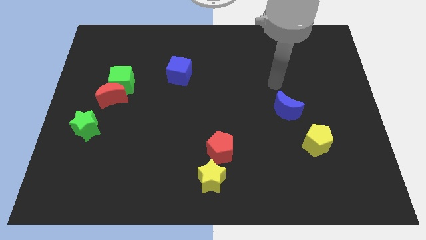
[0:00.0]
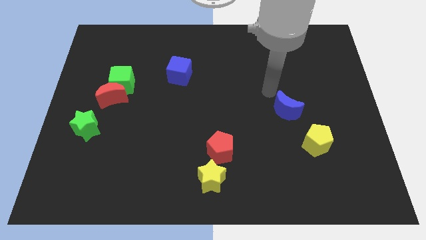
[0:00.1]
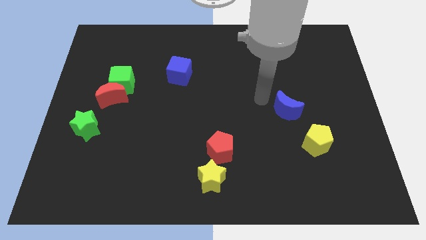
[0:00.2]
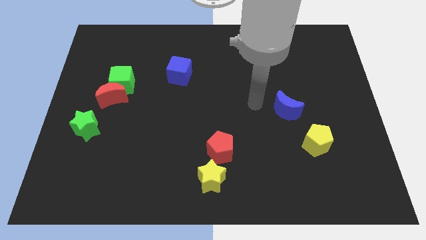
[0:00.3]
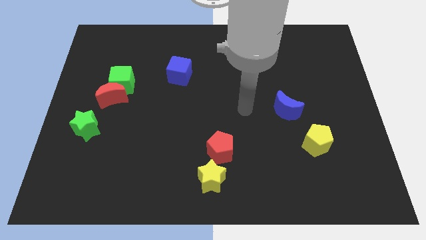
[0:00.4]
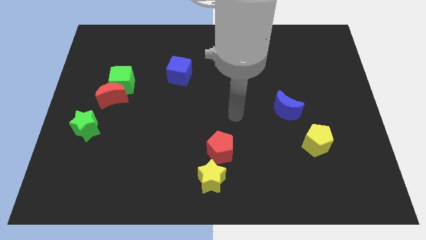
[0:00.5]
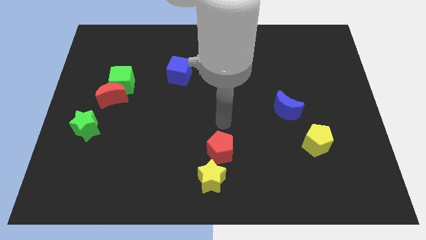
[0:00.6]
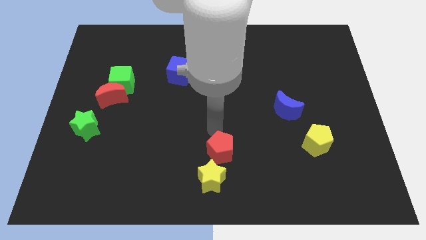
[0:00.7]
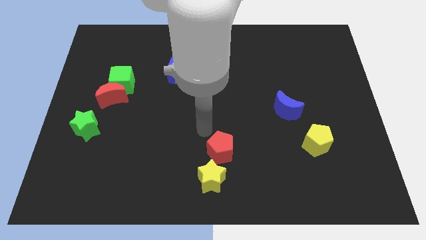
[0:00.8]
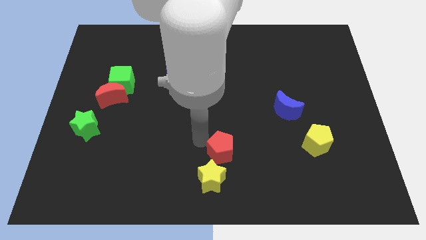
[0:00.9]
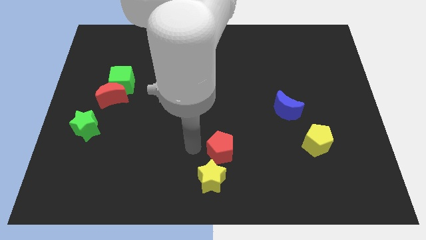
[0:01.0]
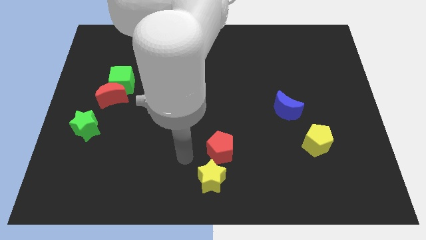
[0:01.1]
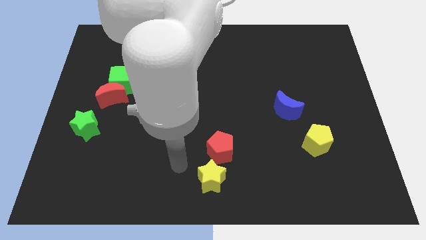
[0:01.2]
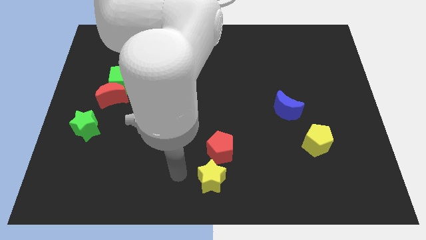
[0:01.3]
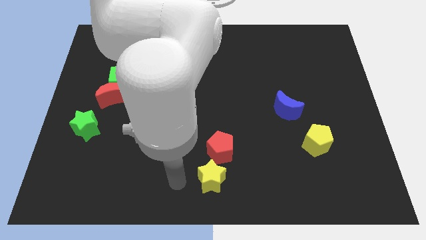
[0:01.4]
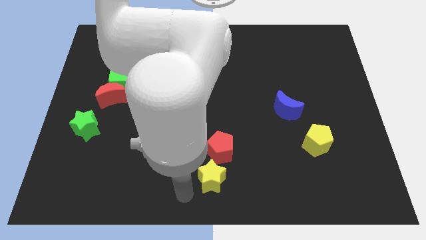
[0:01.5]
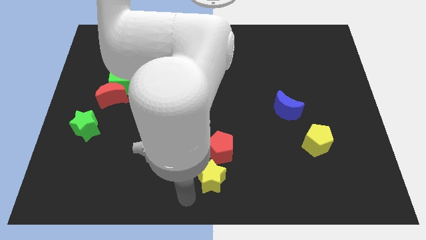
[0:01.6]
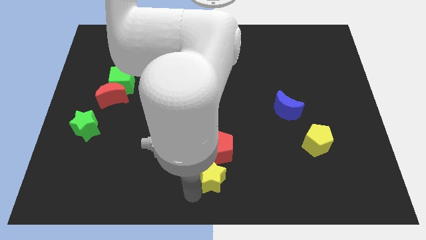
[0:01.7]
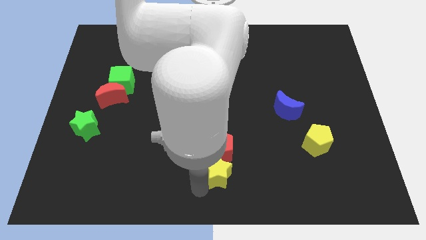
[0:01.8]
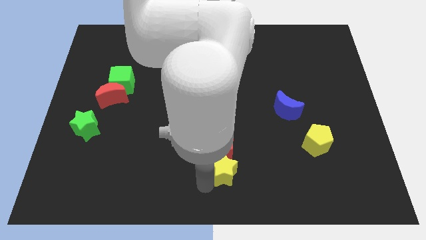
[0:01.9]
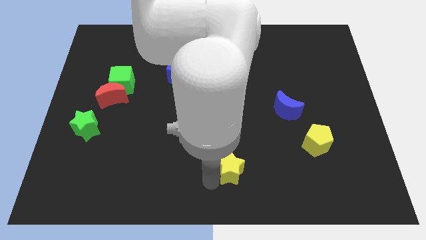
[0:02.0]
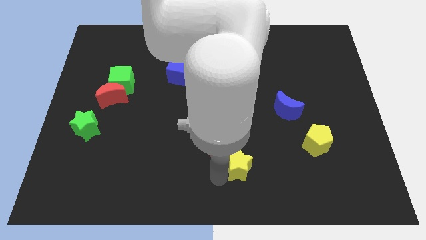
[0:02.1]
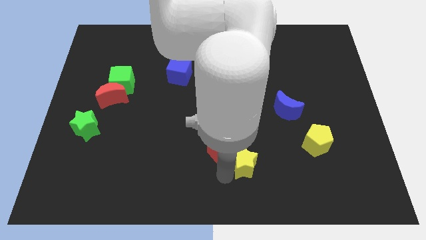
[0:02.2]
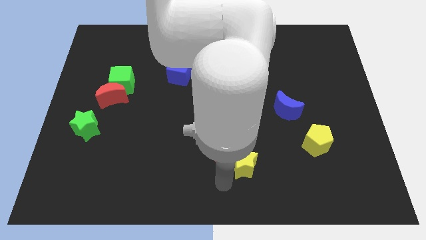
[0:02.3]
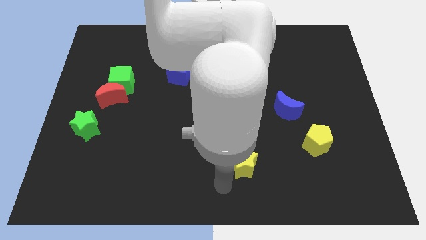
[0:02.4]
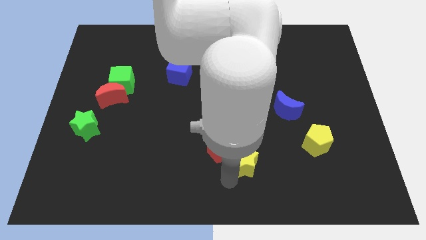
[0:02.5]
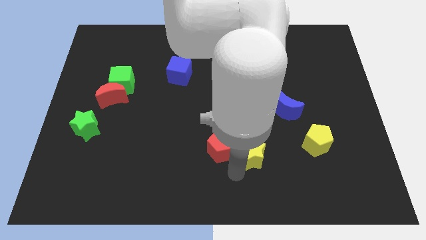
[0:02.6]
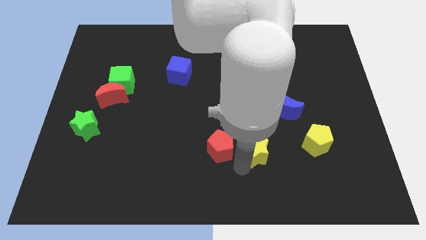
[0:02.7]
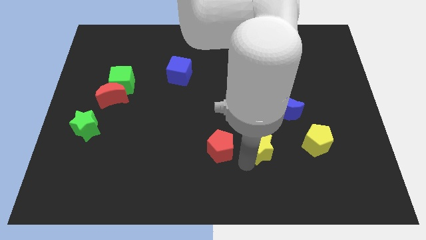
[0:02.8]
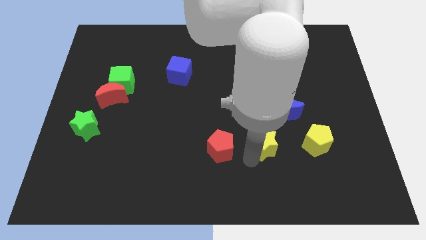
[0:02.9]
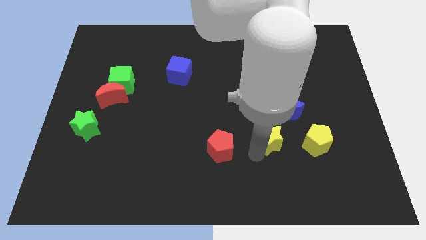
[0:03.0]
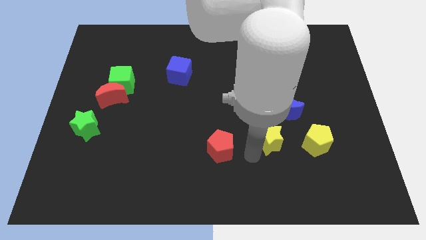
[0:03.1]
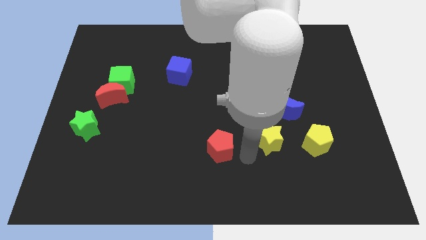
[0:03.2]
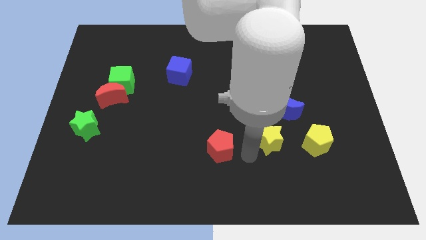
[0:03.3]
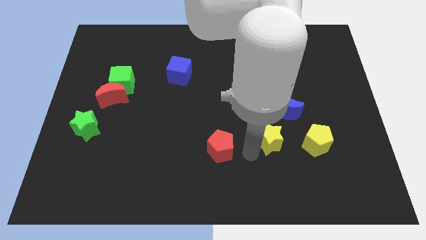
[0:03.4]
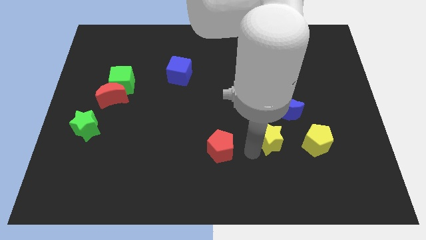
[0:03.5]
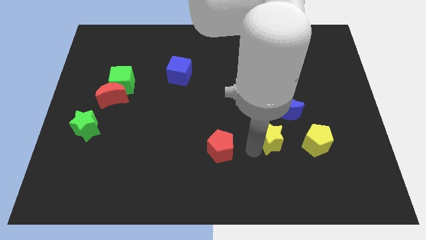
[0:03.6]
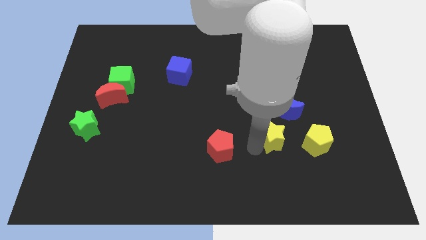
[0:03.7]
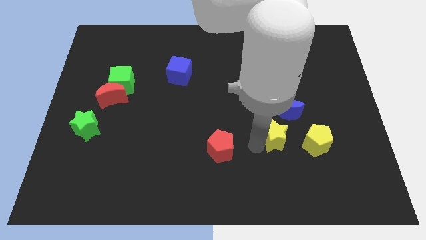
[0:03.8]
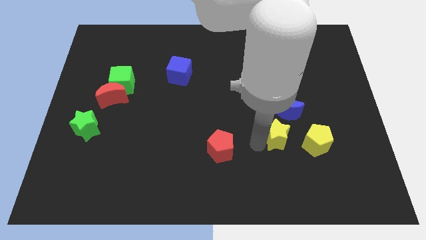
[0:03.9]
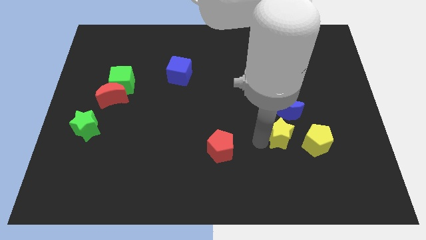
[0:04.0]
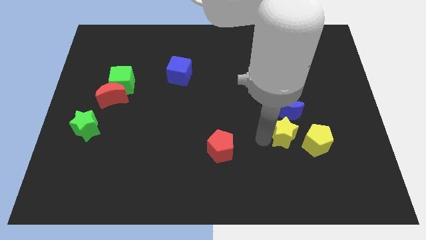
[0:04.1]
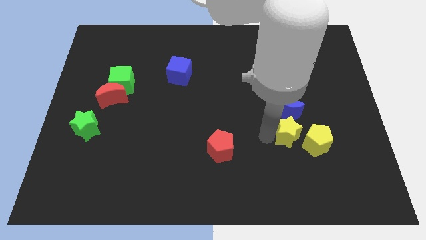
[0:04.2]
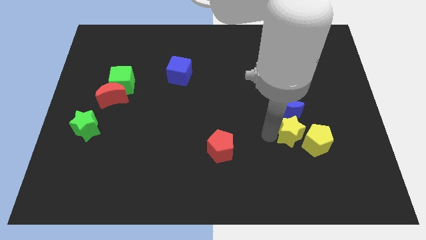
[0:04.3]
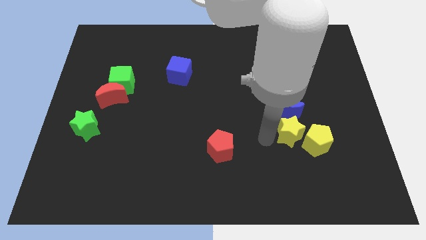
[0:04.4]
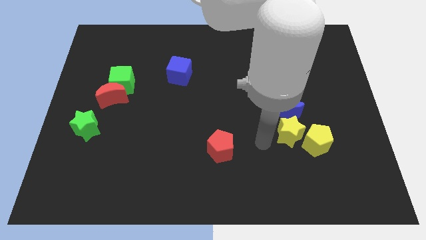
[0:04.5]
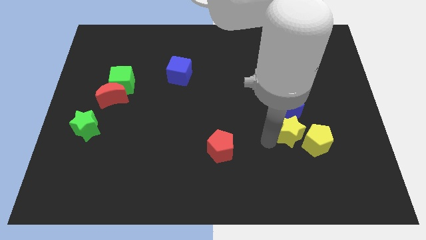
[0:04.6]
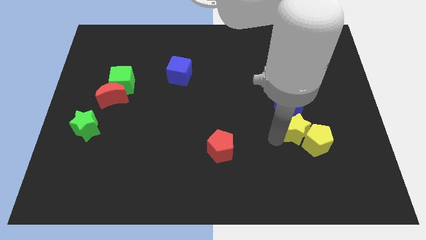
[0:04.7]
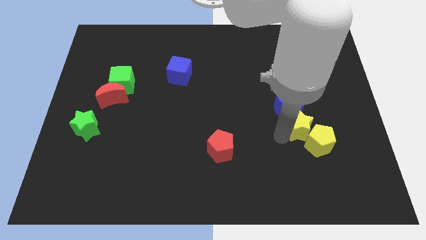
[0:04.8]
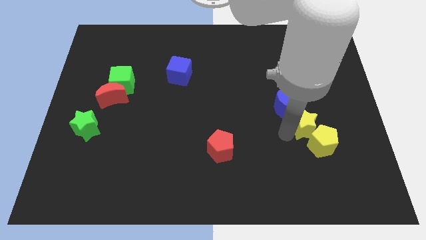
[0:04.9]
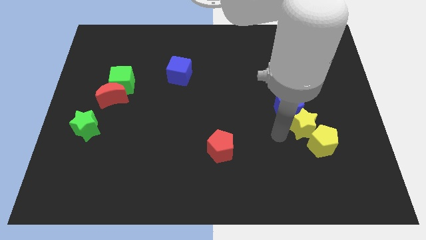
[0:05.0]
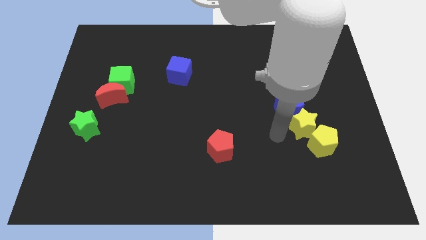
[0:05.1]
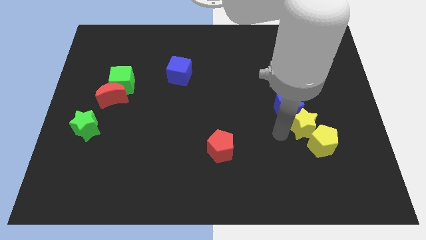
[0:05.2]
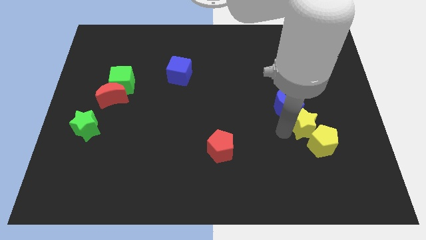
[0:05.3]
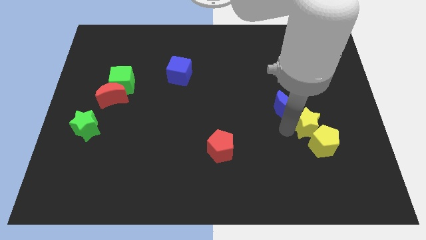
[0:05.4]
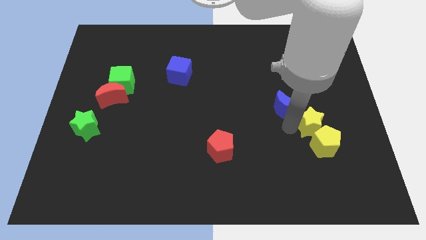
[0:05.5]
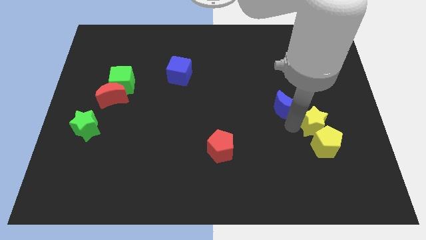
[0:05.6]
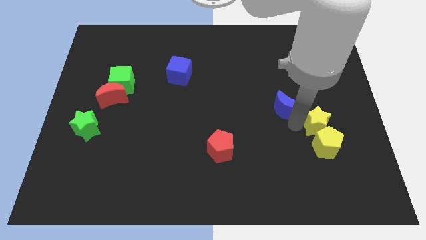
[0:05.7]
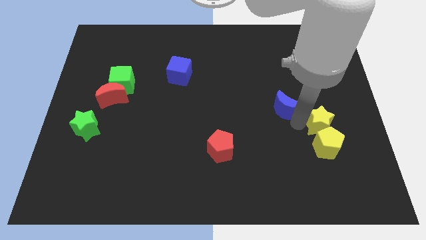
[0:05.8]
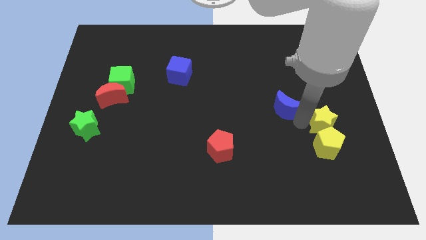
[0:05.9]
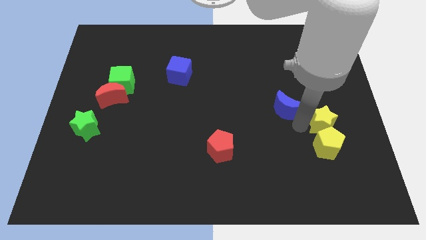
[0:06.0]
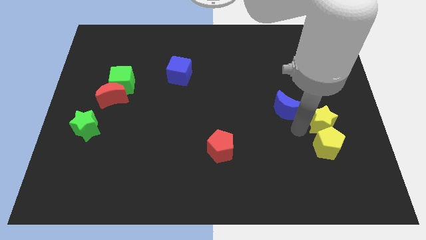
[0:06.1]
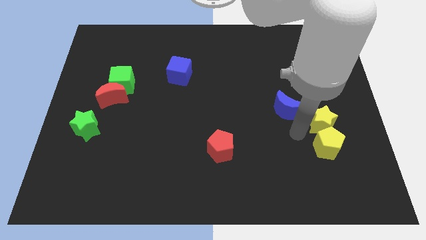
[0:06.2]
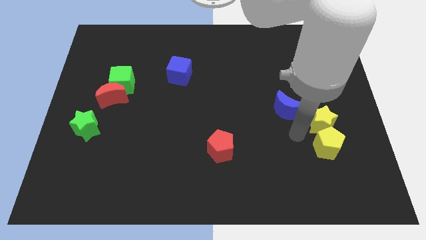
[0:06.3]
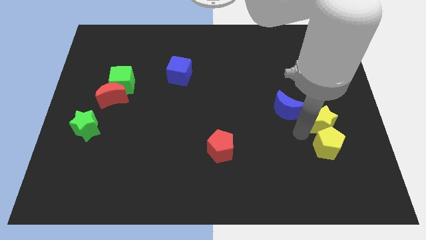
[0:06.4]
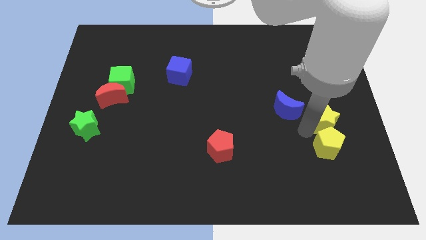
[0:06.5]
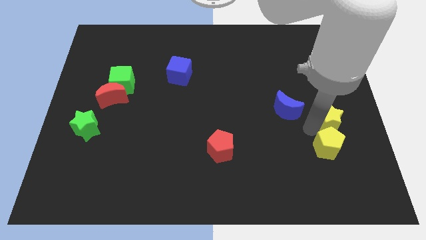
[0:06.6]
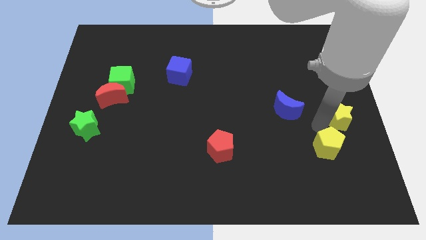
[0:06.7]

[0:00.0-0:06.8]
push the yellow star to the center right

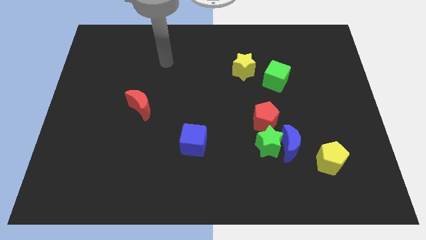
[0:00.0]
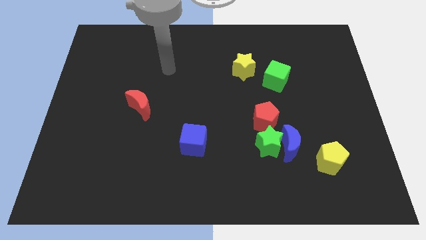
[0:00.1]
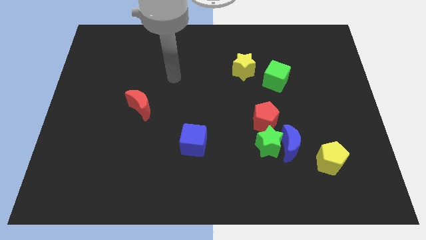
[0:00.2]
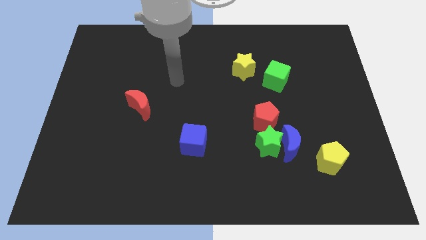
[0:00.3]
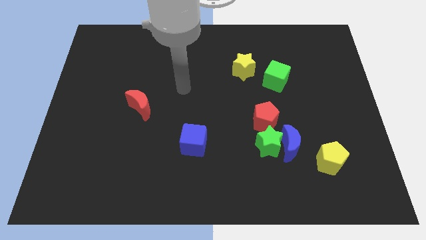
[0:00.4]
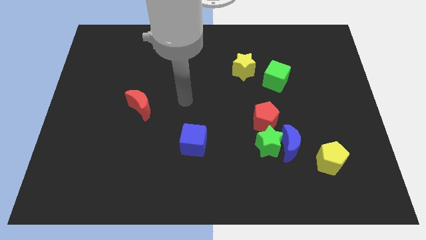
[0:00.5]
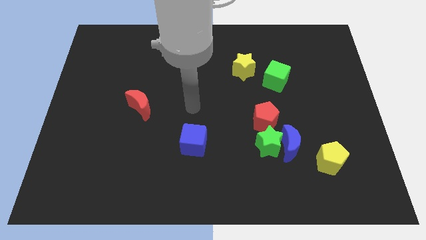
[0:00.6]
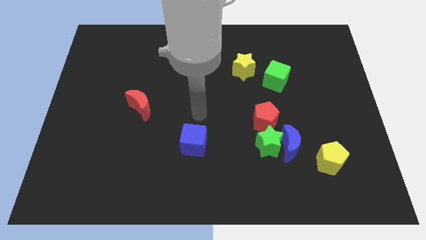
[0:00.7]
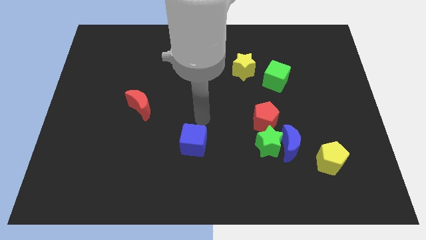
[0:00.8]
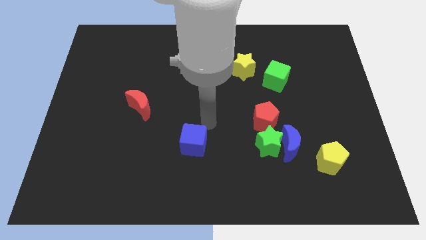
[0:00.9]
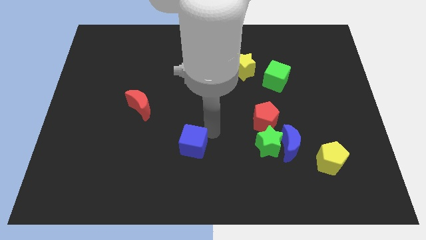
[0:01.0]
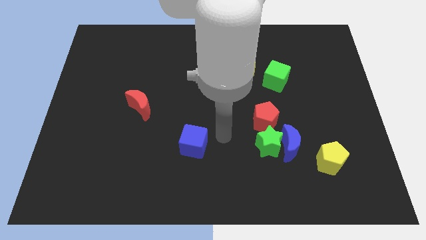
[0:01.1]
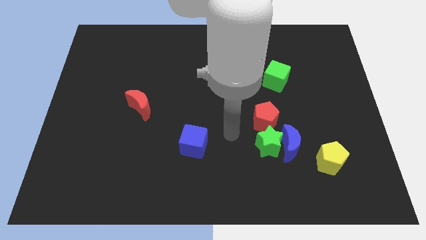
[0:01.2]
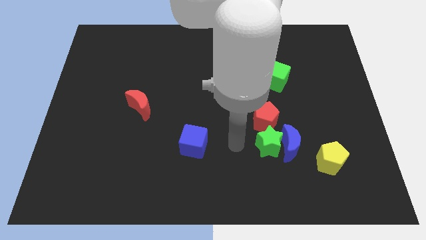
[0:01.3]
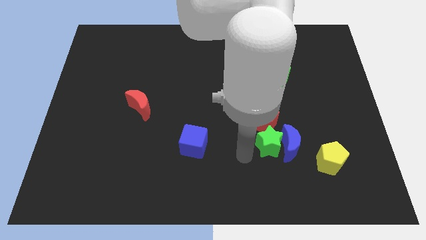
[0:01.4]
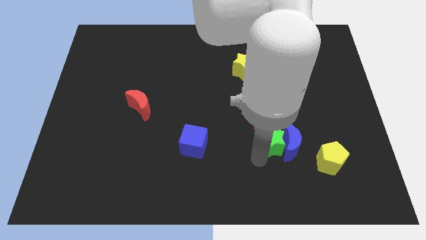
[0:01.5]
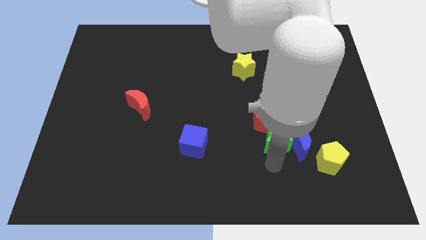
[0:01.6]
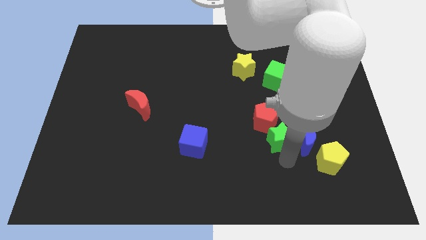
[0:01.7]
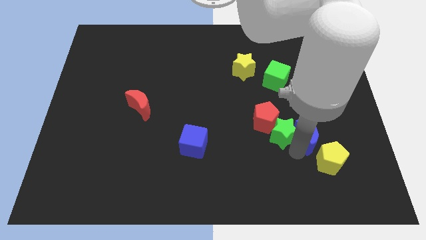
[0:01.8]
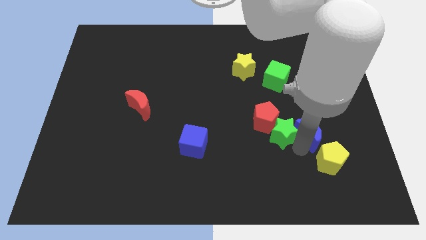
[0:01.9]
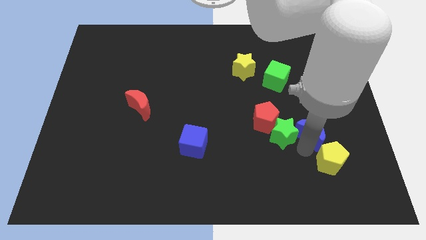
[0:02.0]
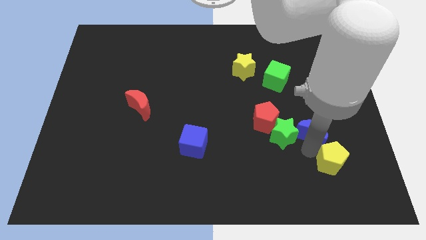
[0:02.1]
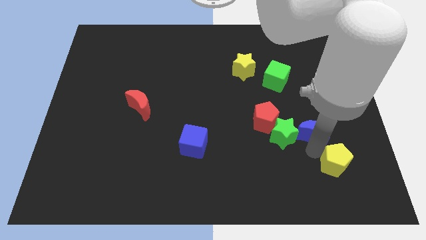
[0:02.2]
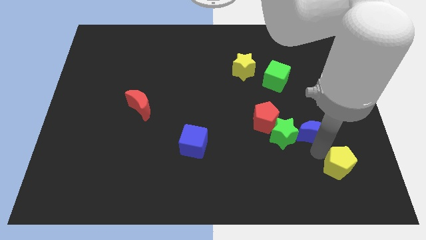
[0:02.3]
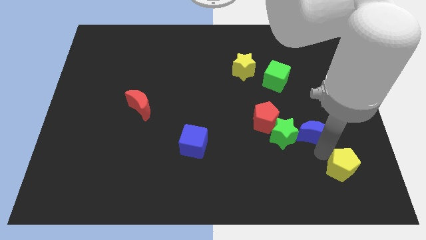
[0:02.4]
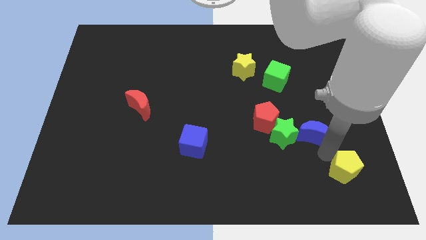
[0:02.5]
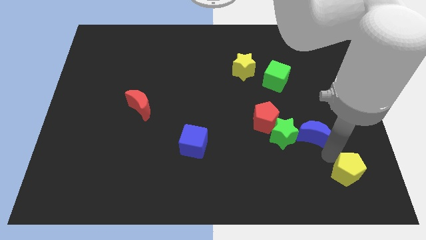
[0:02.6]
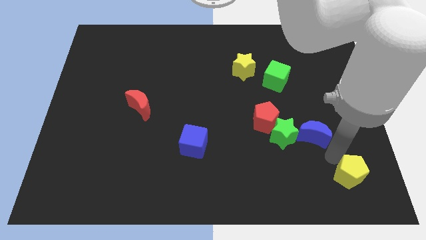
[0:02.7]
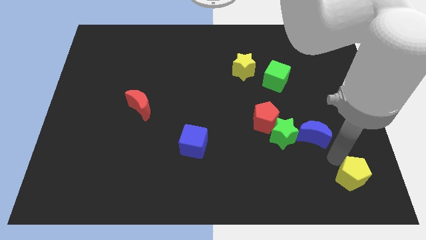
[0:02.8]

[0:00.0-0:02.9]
push the yellow pentagon to the bottom right of the board
